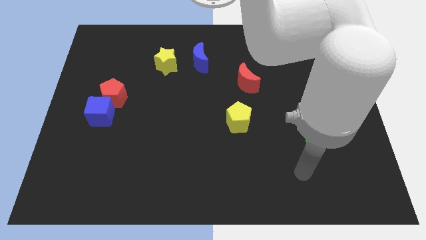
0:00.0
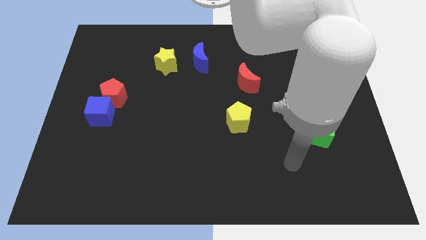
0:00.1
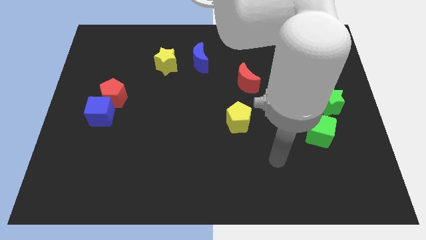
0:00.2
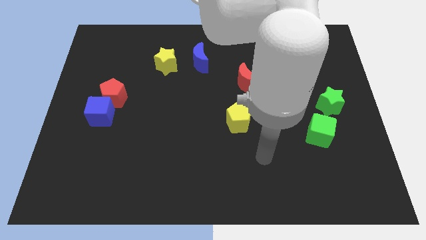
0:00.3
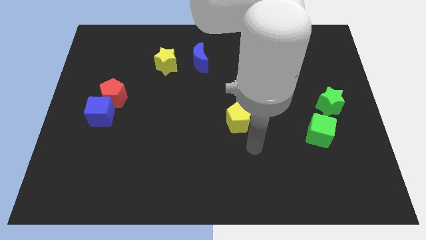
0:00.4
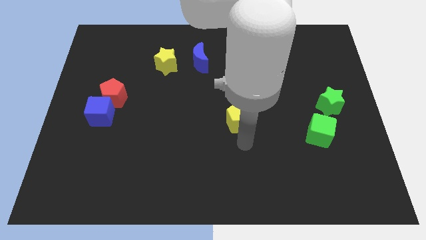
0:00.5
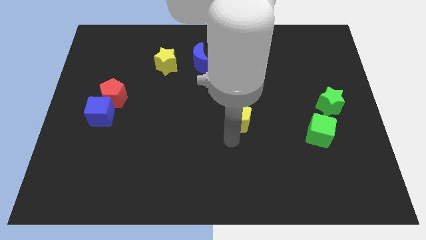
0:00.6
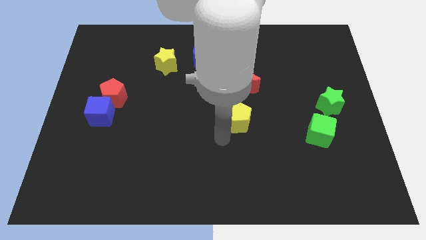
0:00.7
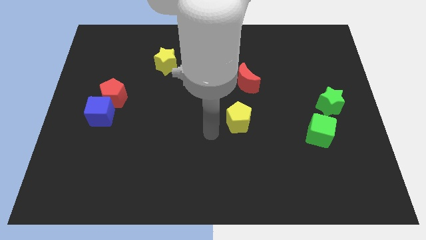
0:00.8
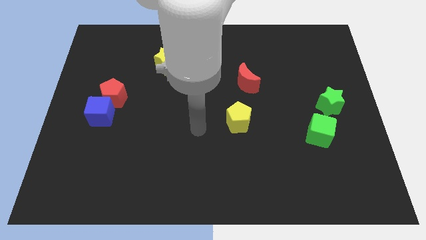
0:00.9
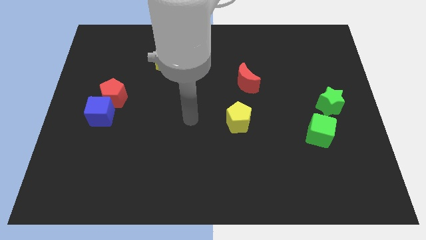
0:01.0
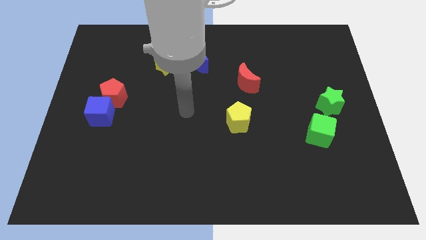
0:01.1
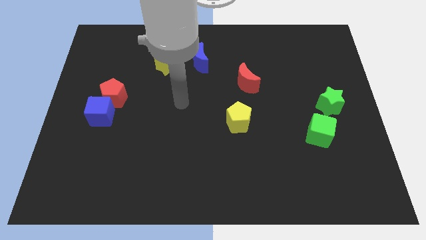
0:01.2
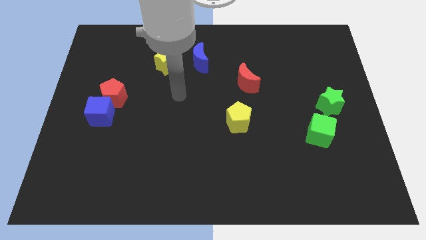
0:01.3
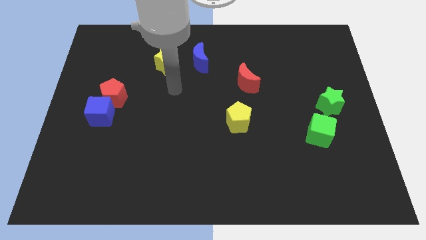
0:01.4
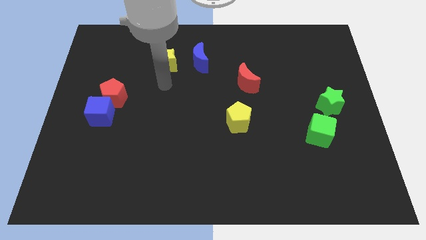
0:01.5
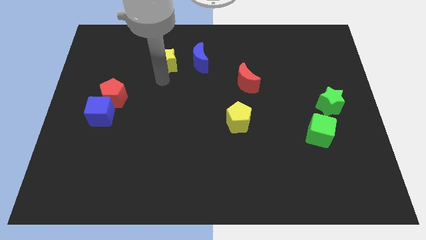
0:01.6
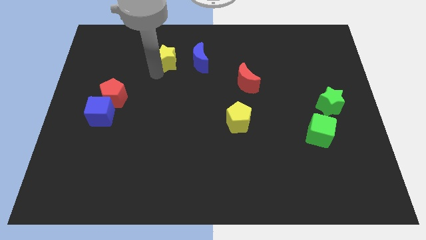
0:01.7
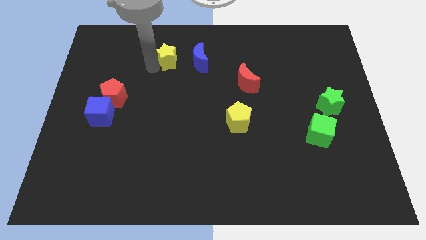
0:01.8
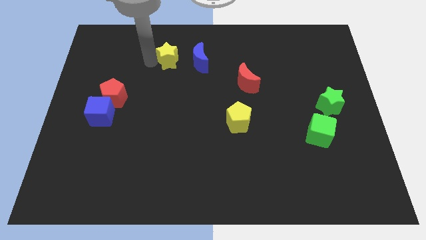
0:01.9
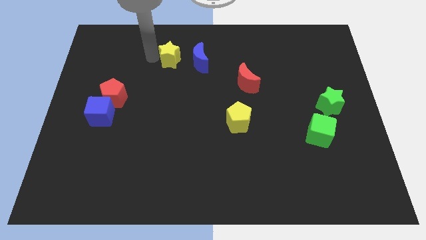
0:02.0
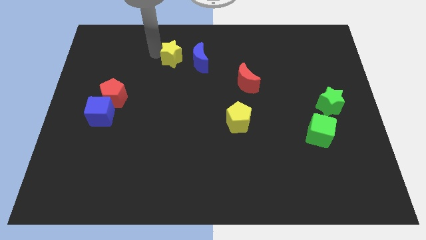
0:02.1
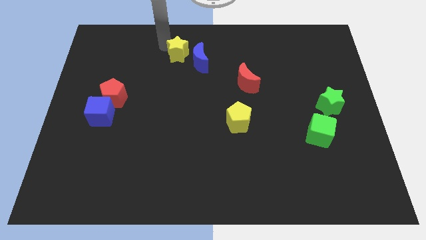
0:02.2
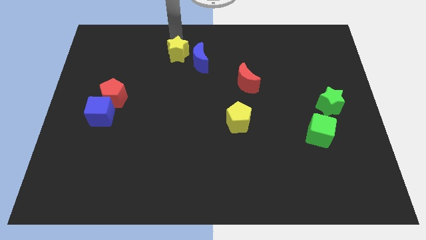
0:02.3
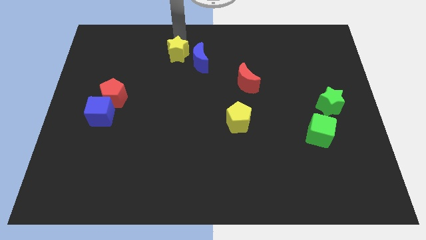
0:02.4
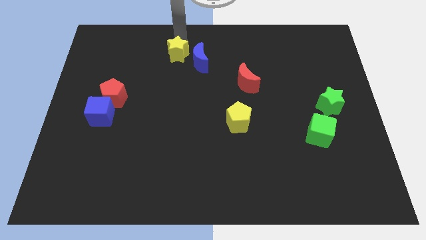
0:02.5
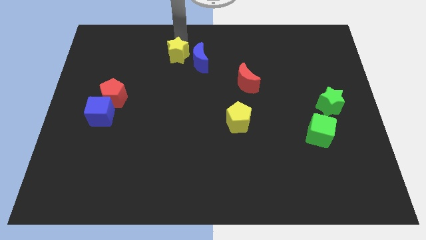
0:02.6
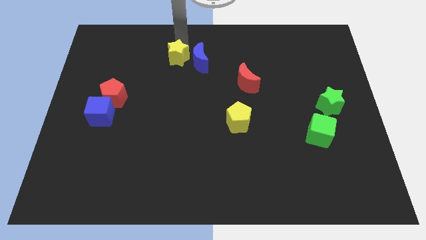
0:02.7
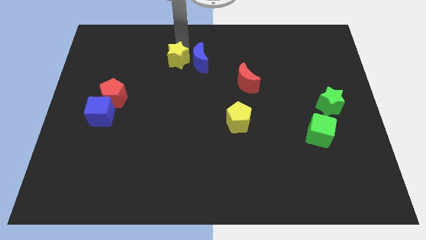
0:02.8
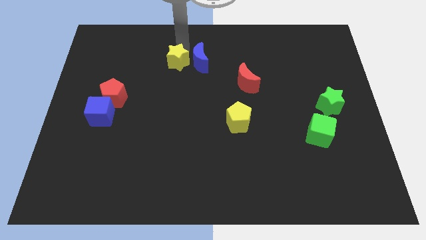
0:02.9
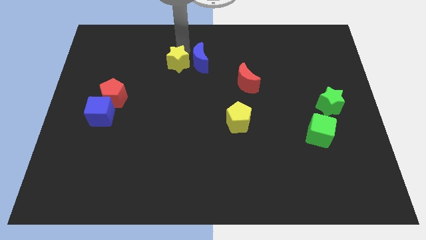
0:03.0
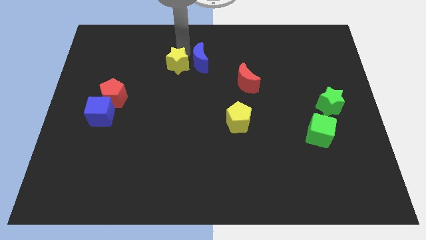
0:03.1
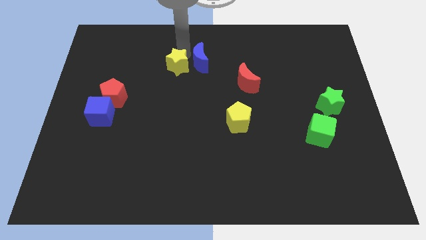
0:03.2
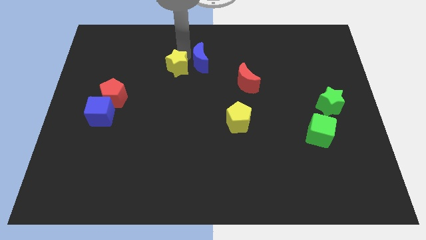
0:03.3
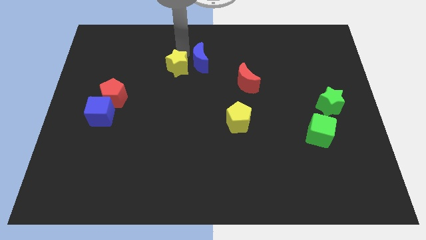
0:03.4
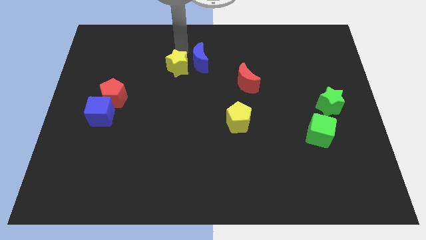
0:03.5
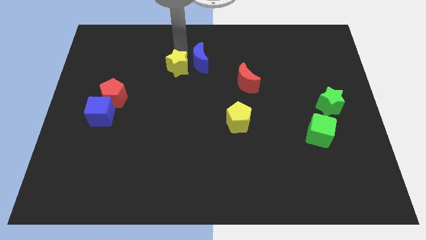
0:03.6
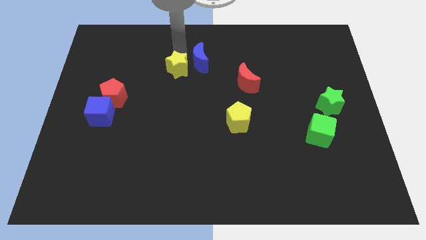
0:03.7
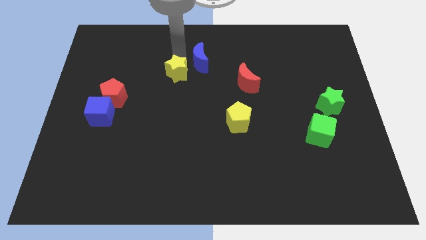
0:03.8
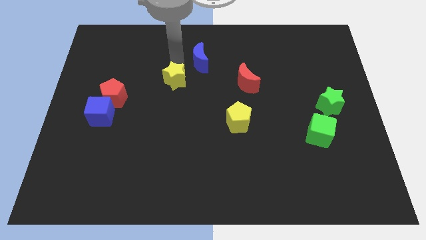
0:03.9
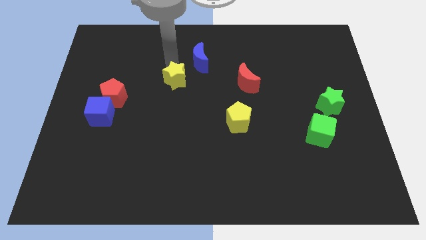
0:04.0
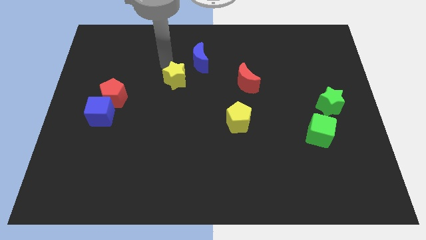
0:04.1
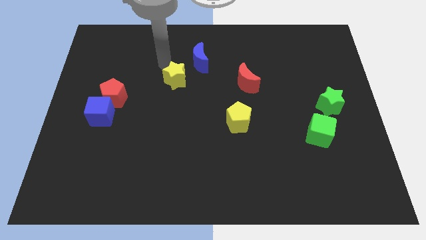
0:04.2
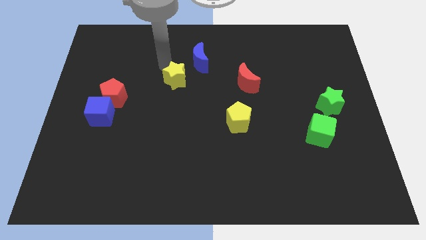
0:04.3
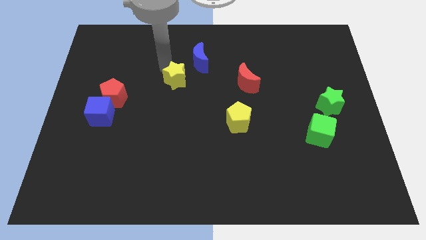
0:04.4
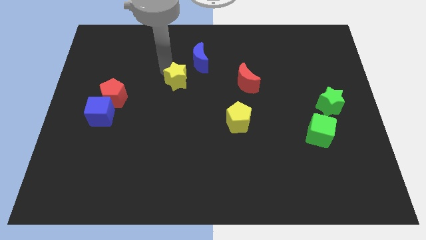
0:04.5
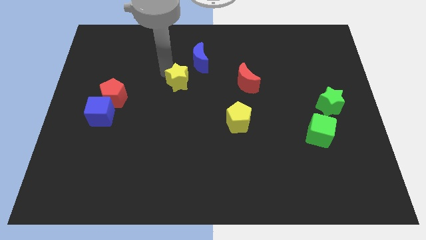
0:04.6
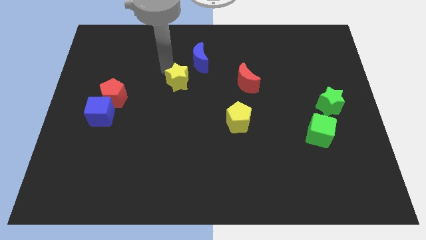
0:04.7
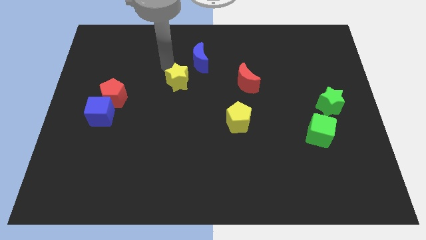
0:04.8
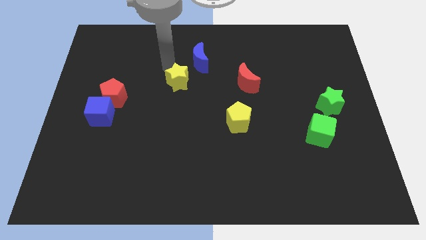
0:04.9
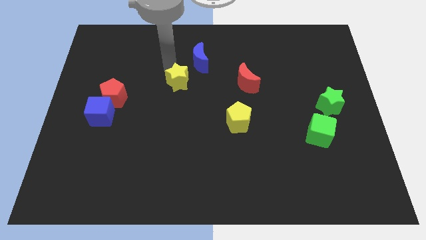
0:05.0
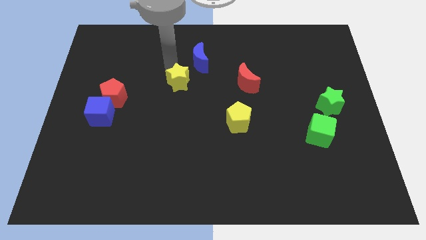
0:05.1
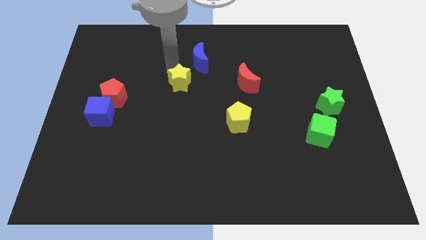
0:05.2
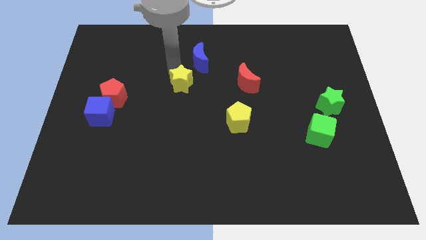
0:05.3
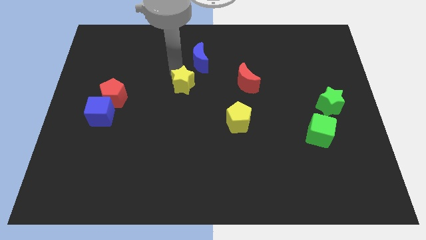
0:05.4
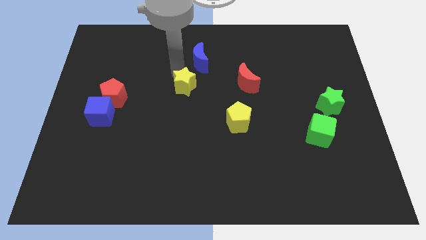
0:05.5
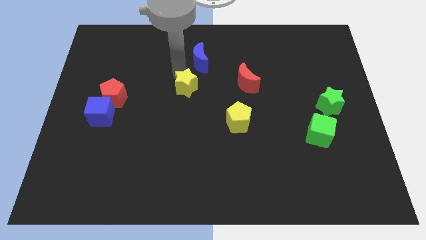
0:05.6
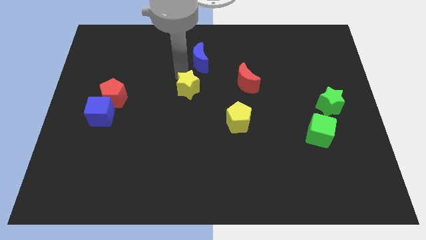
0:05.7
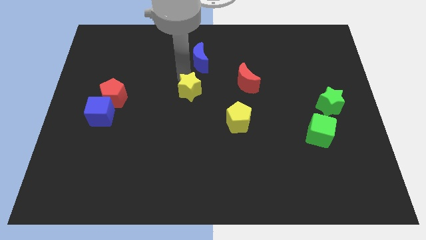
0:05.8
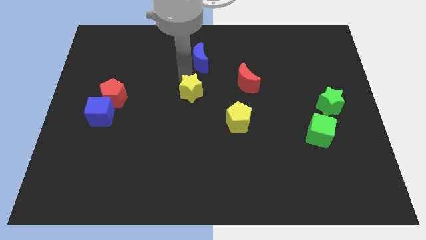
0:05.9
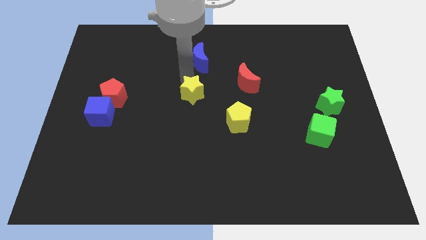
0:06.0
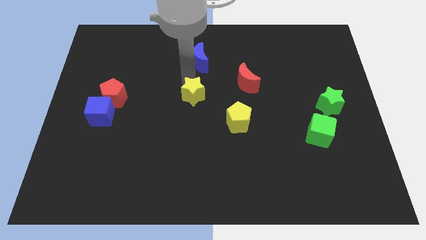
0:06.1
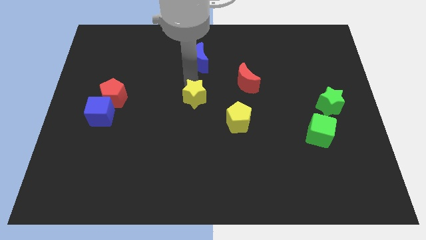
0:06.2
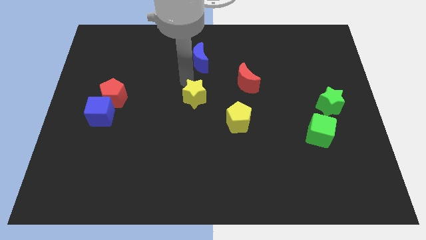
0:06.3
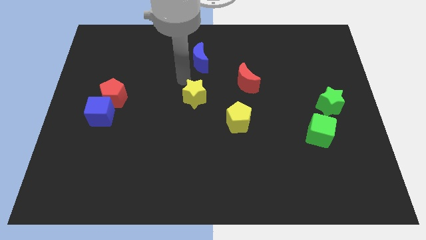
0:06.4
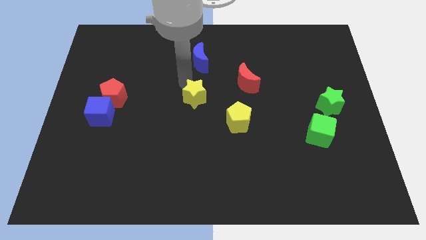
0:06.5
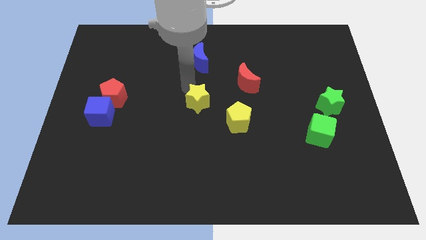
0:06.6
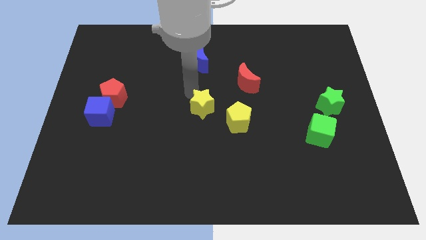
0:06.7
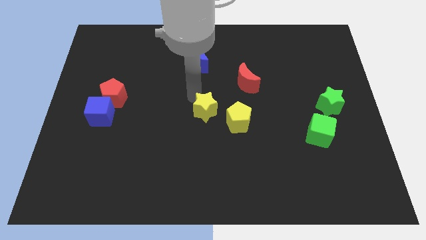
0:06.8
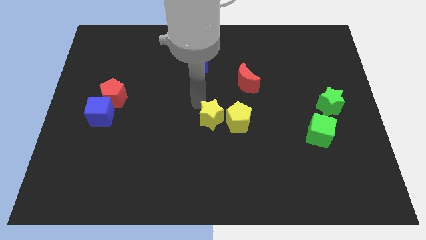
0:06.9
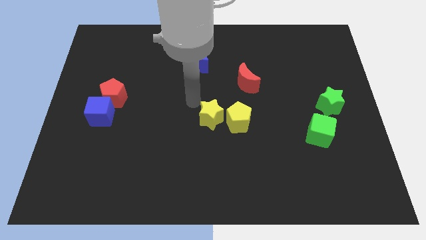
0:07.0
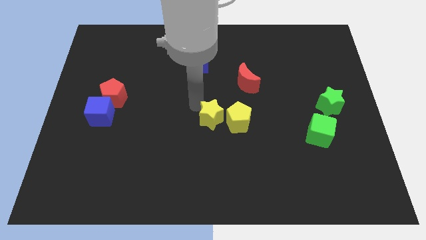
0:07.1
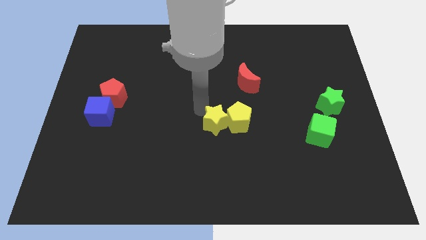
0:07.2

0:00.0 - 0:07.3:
slide the yellow star down and right

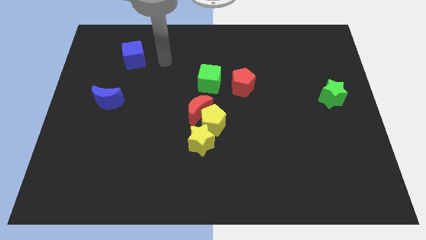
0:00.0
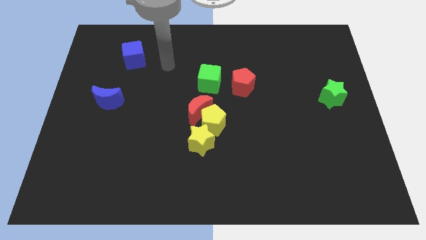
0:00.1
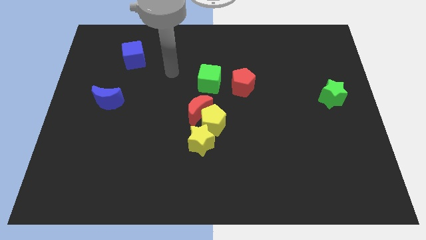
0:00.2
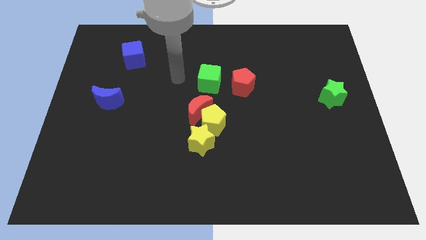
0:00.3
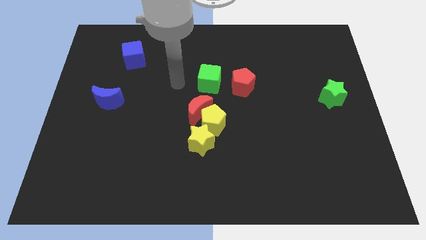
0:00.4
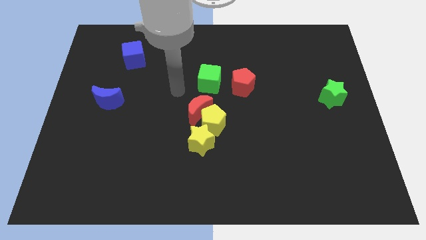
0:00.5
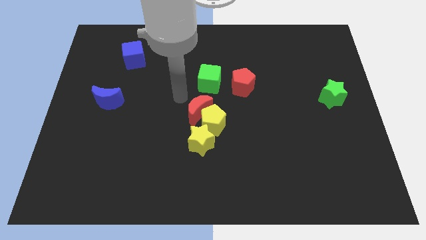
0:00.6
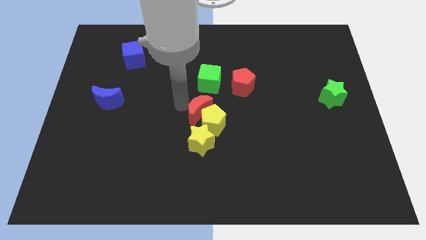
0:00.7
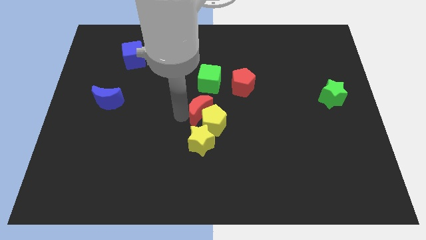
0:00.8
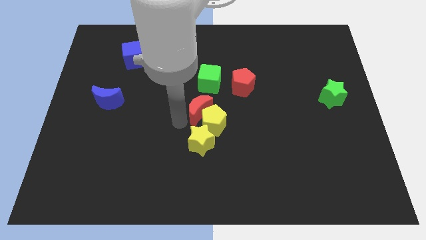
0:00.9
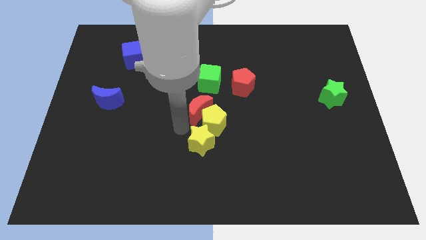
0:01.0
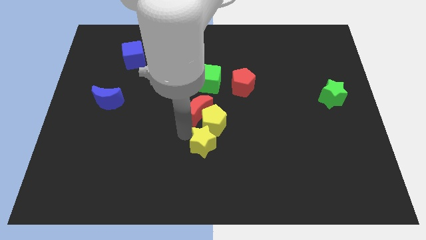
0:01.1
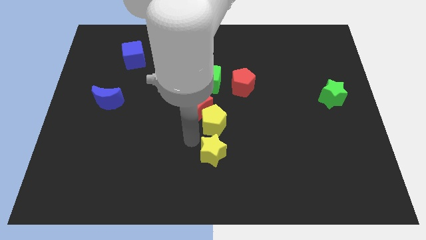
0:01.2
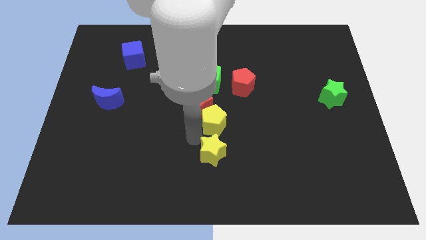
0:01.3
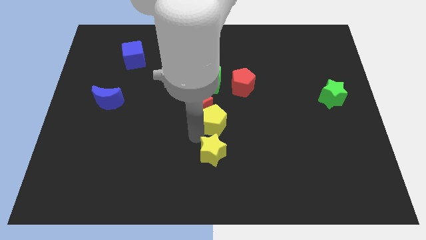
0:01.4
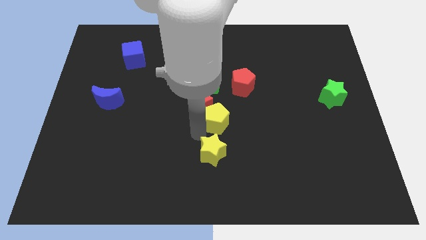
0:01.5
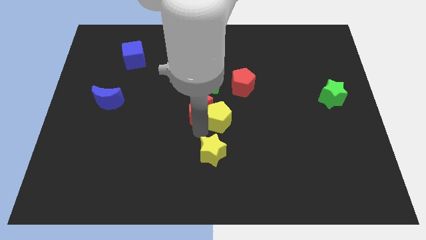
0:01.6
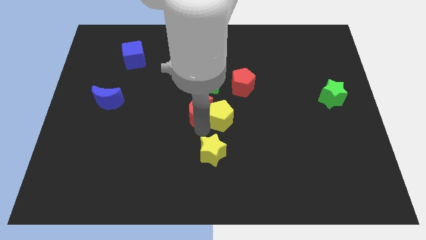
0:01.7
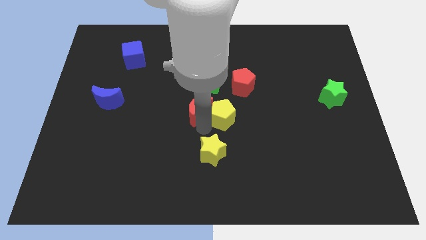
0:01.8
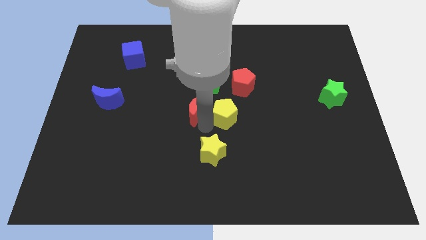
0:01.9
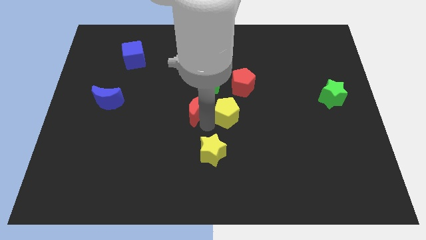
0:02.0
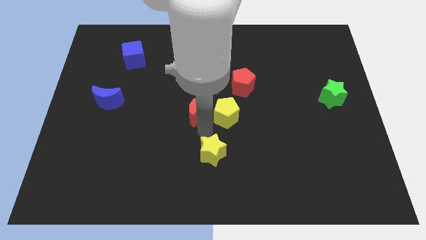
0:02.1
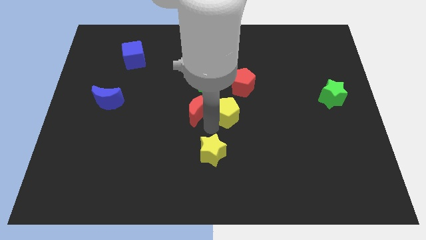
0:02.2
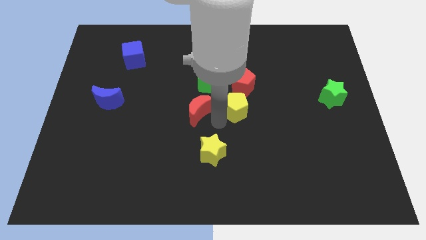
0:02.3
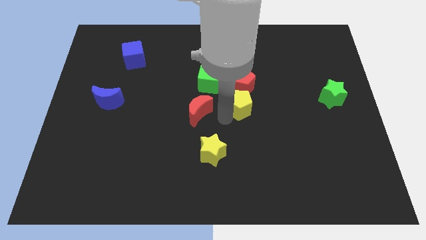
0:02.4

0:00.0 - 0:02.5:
slightly move the yellow pentagon up and to the right
